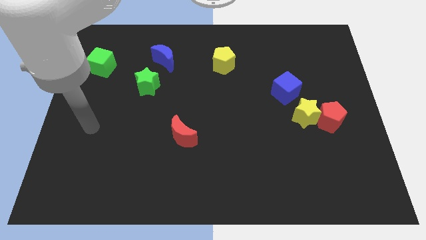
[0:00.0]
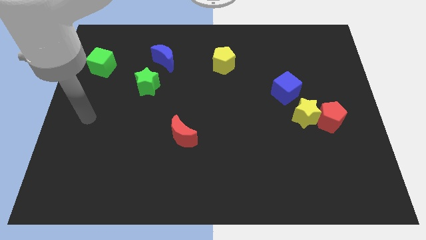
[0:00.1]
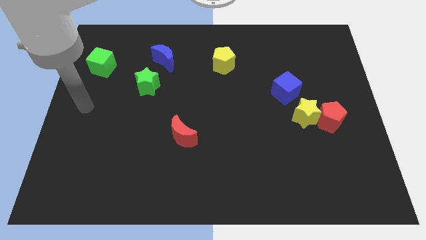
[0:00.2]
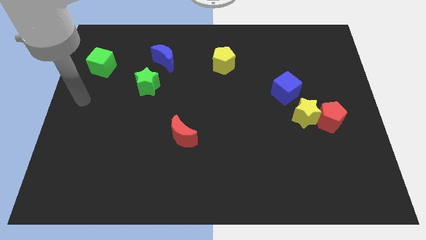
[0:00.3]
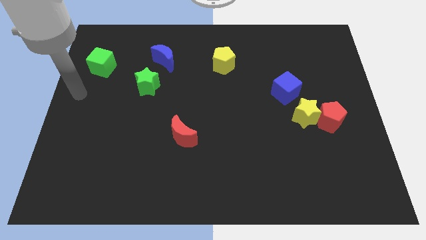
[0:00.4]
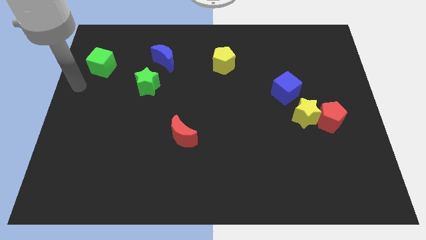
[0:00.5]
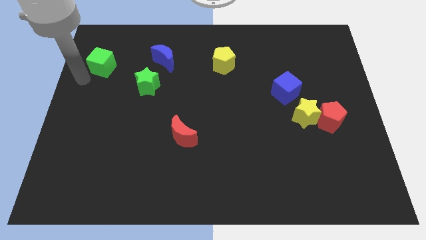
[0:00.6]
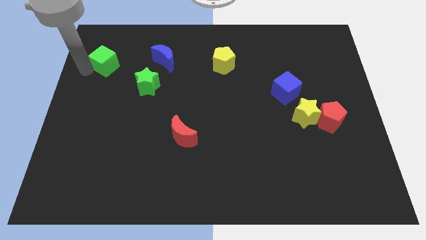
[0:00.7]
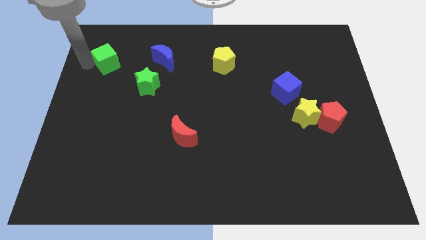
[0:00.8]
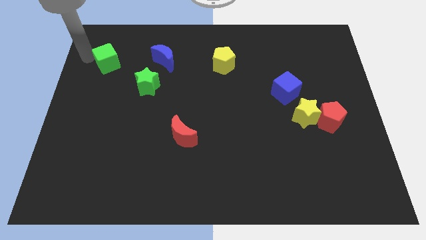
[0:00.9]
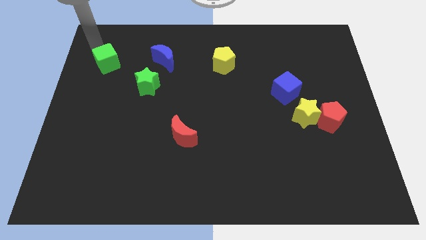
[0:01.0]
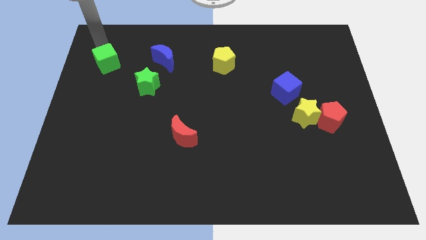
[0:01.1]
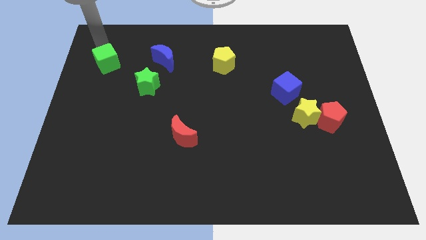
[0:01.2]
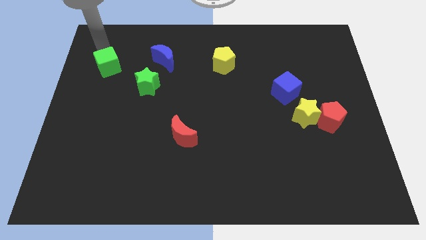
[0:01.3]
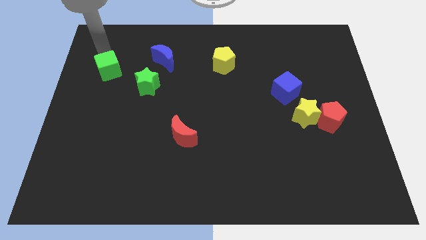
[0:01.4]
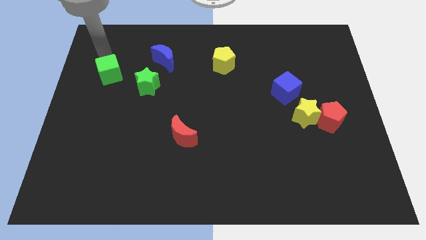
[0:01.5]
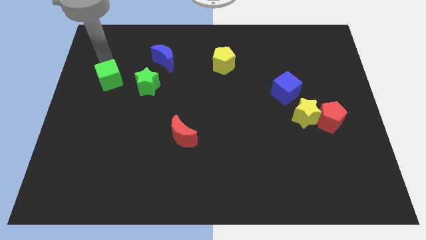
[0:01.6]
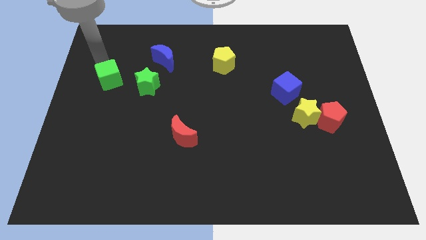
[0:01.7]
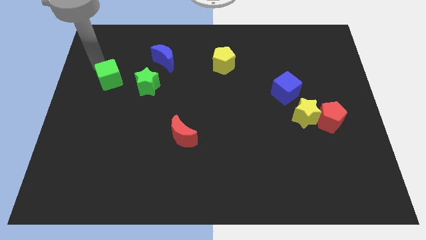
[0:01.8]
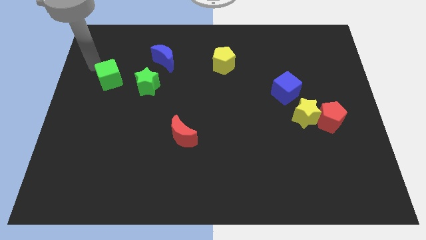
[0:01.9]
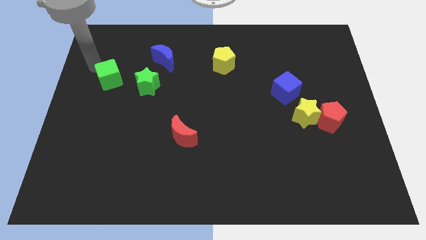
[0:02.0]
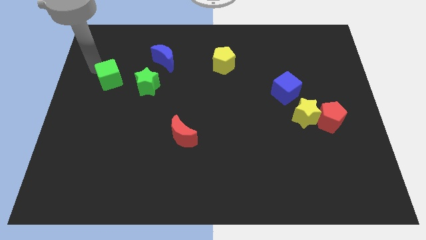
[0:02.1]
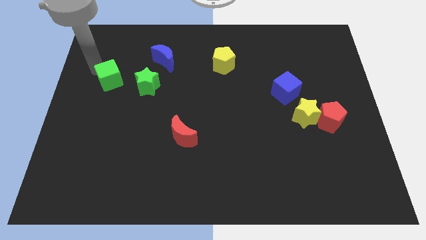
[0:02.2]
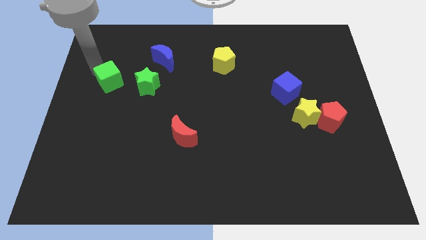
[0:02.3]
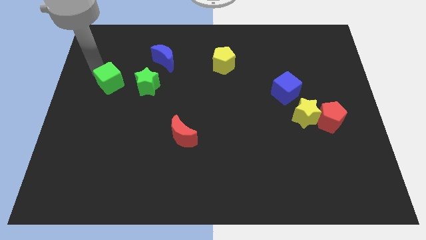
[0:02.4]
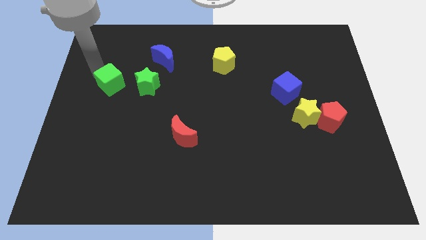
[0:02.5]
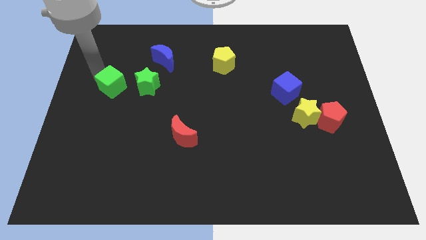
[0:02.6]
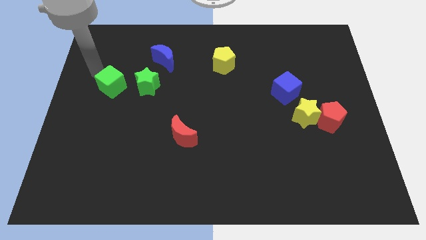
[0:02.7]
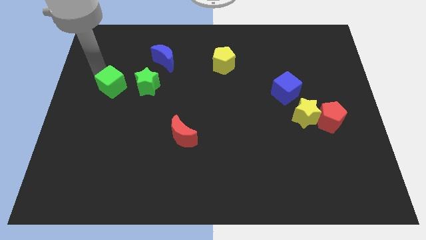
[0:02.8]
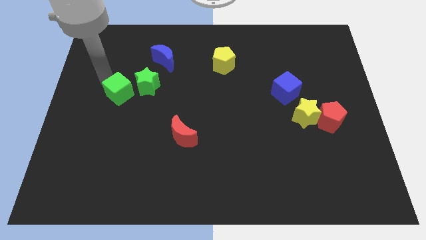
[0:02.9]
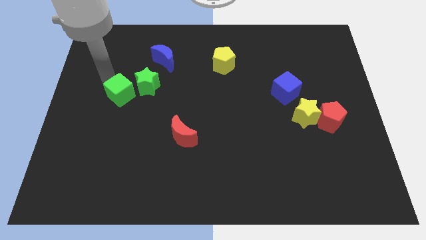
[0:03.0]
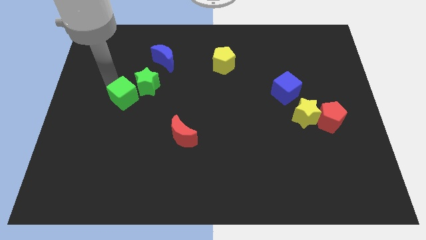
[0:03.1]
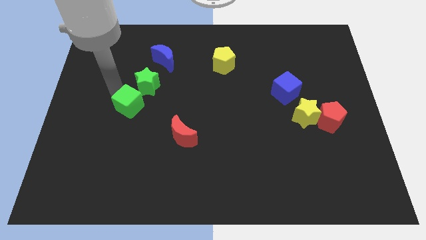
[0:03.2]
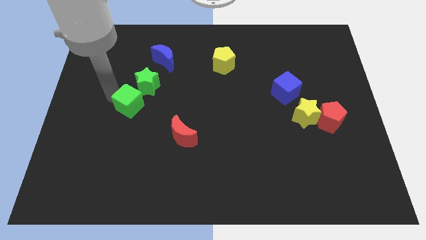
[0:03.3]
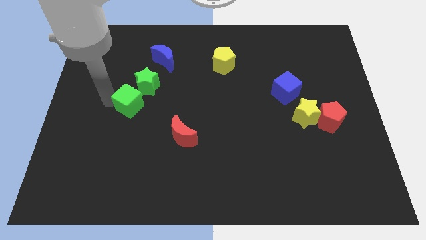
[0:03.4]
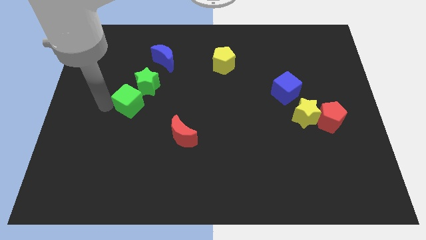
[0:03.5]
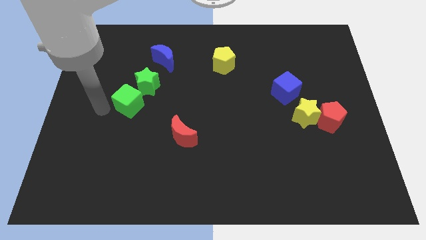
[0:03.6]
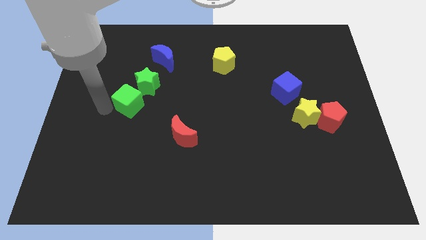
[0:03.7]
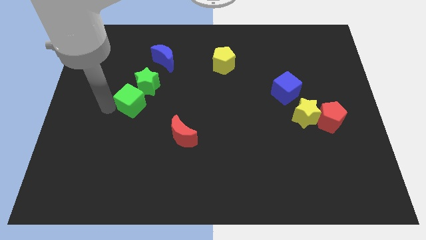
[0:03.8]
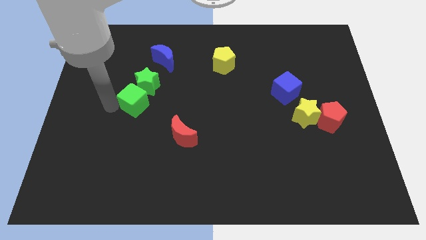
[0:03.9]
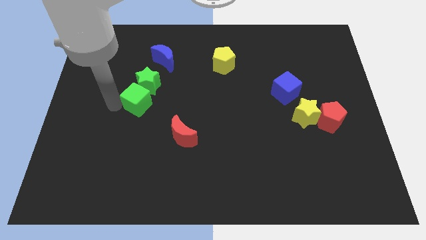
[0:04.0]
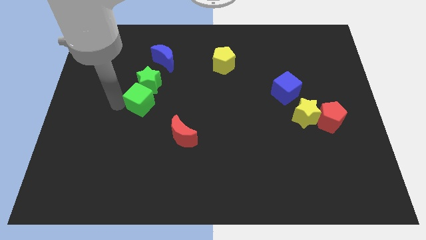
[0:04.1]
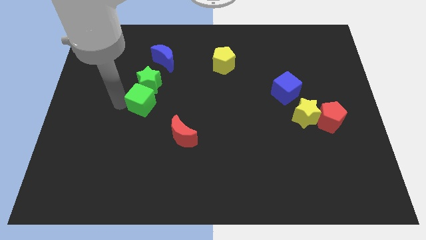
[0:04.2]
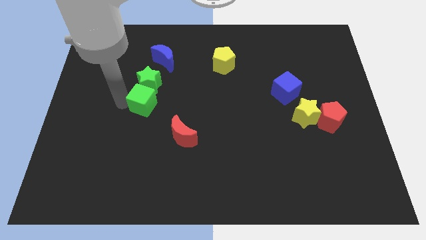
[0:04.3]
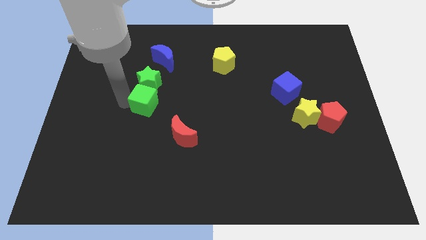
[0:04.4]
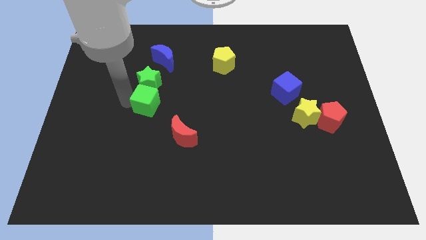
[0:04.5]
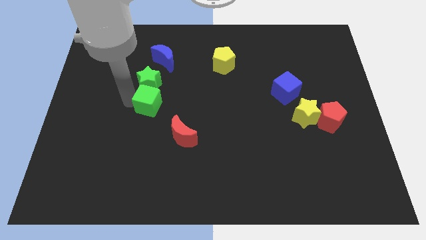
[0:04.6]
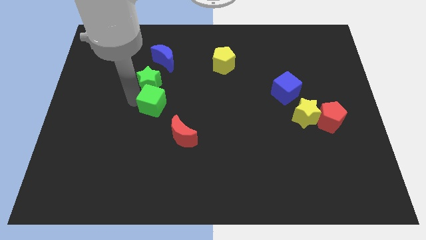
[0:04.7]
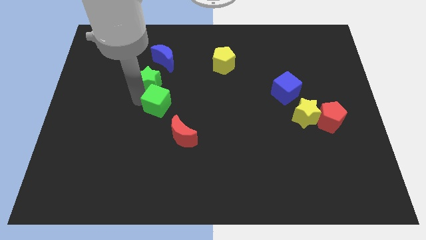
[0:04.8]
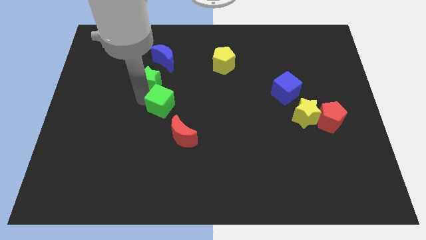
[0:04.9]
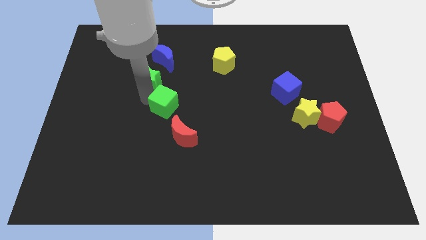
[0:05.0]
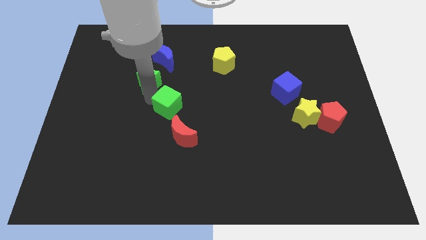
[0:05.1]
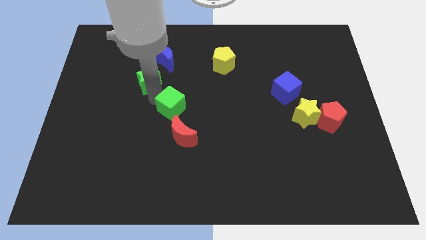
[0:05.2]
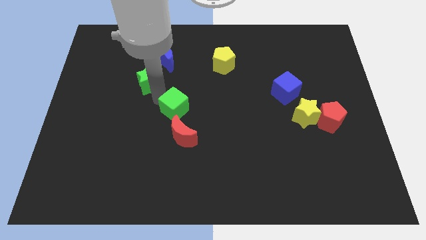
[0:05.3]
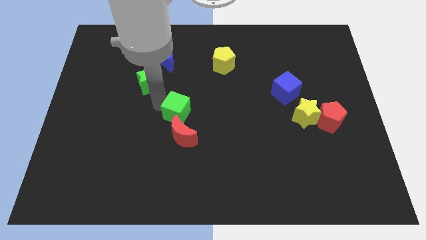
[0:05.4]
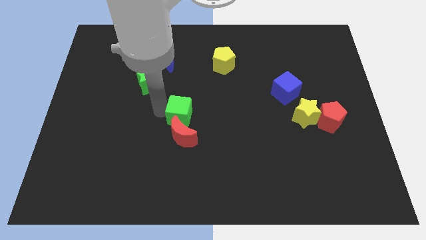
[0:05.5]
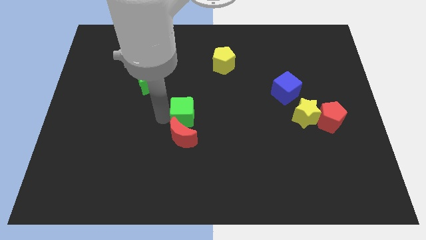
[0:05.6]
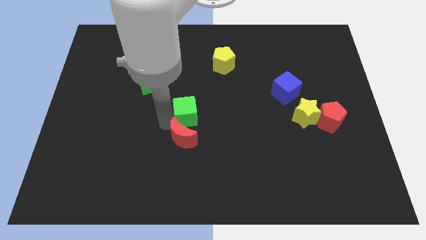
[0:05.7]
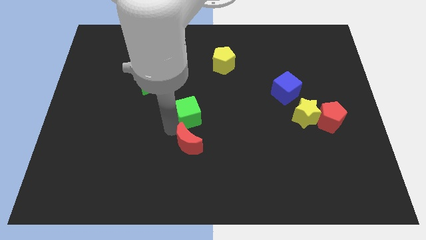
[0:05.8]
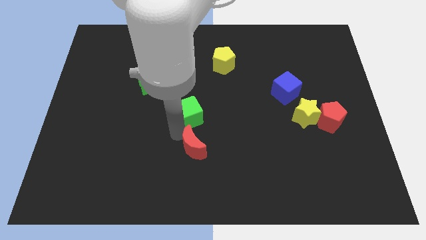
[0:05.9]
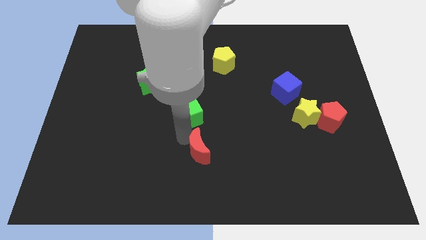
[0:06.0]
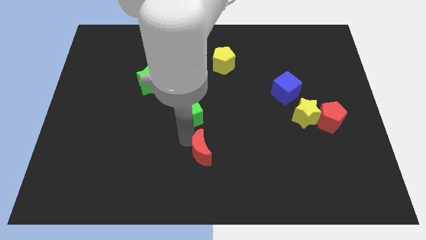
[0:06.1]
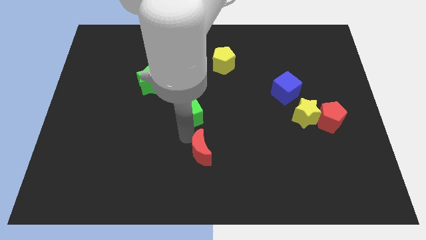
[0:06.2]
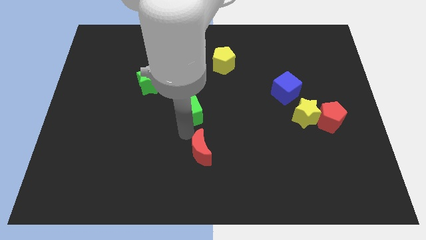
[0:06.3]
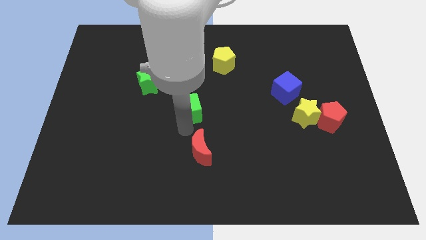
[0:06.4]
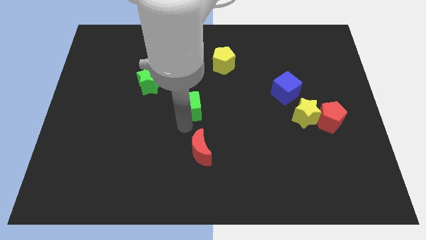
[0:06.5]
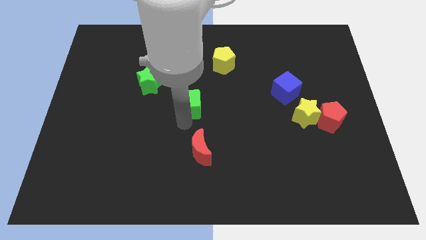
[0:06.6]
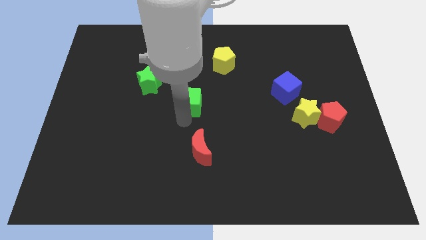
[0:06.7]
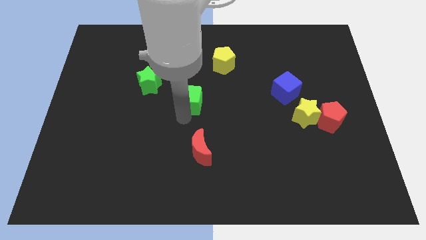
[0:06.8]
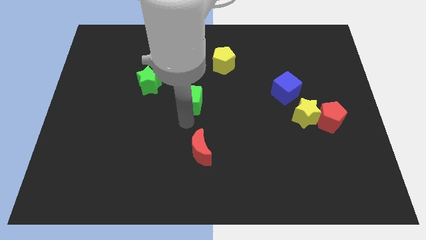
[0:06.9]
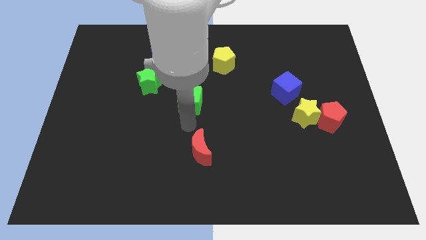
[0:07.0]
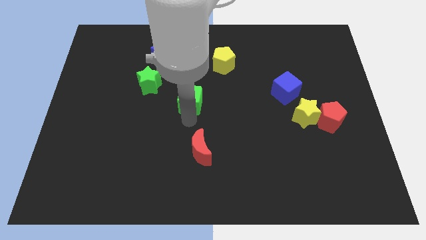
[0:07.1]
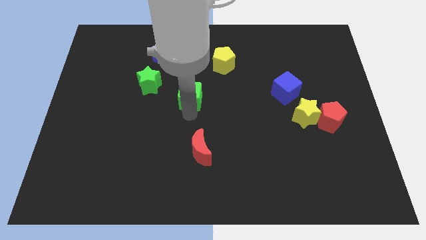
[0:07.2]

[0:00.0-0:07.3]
put the green cube just right of the green star

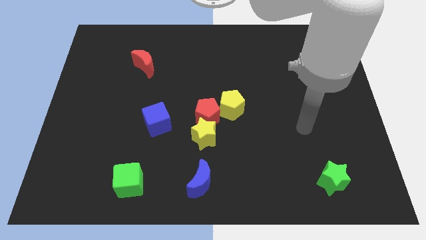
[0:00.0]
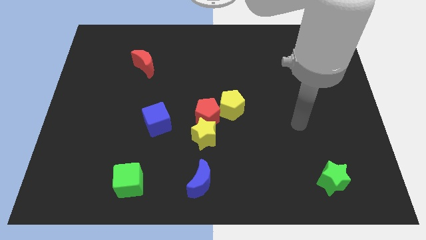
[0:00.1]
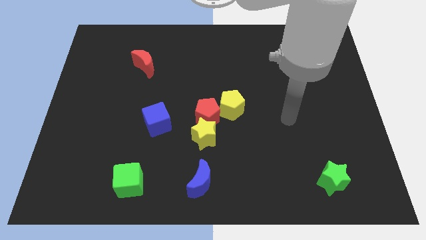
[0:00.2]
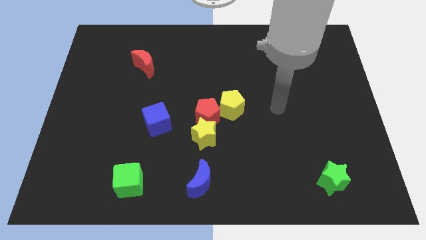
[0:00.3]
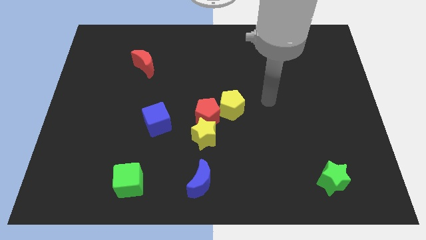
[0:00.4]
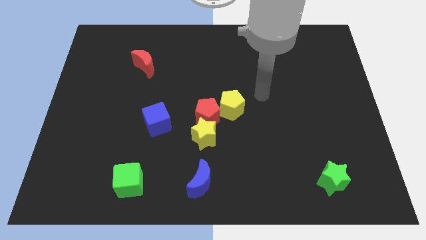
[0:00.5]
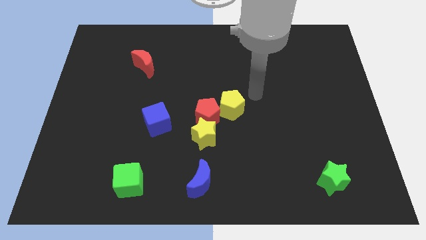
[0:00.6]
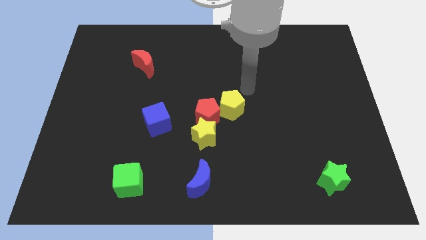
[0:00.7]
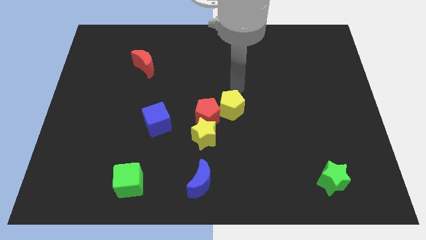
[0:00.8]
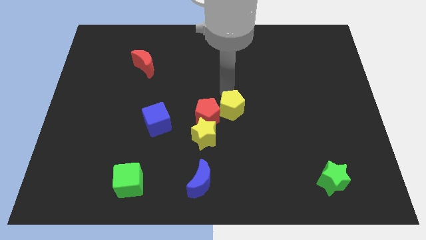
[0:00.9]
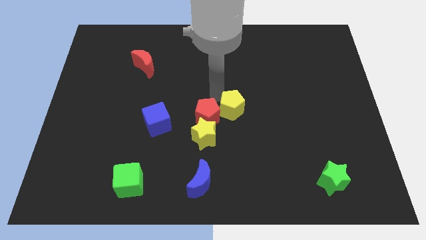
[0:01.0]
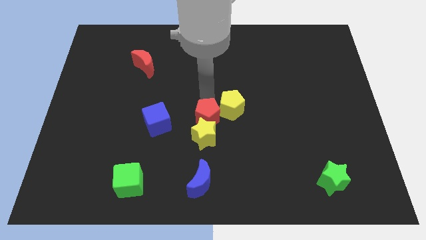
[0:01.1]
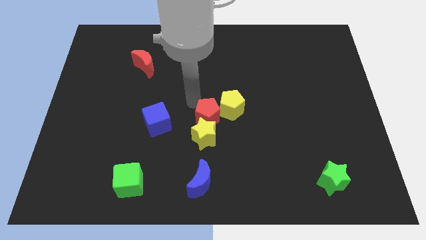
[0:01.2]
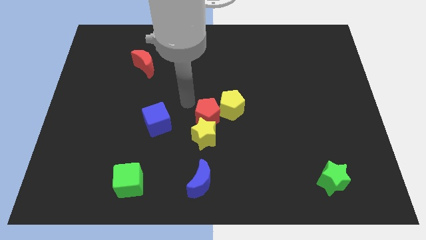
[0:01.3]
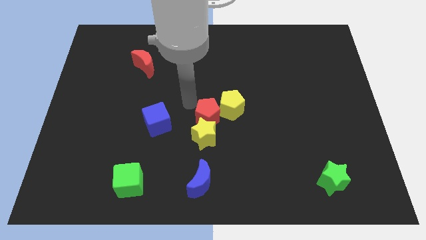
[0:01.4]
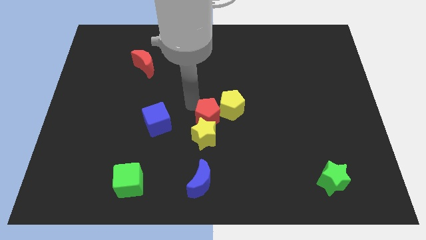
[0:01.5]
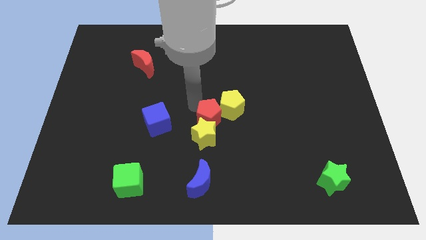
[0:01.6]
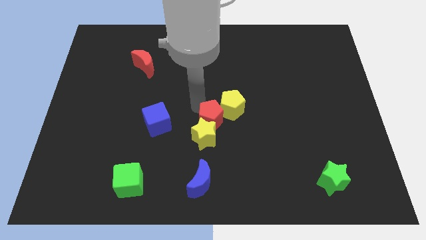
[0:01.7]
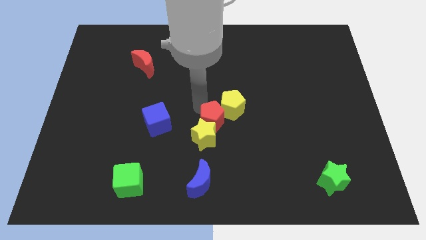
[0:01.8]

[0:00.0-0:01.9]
push the red pentagon to the bottom side of the yellow pentagon
